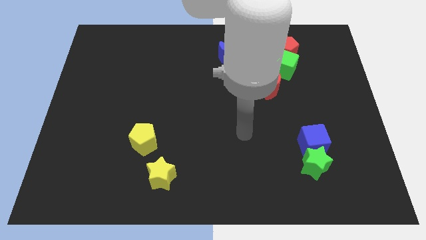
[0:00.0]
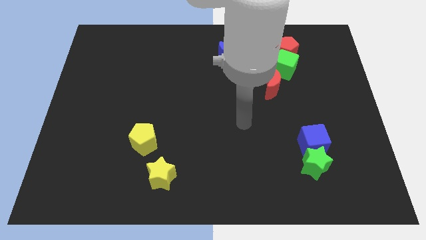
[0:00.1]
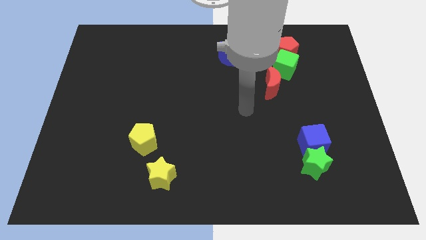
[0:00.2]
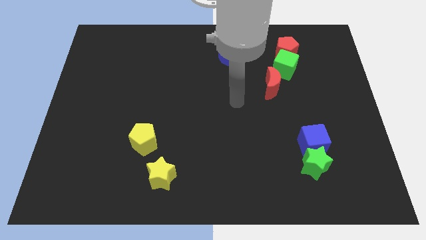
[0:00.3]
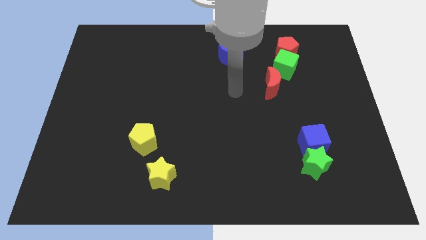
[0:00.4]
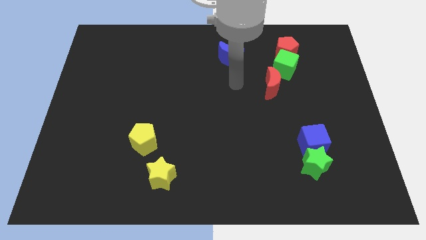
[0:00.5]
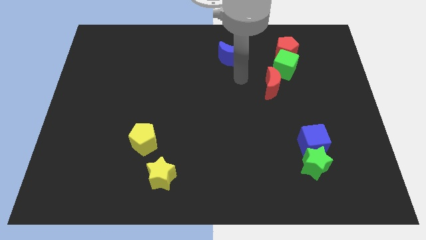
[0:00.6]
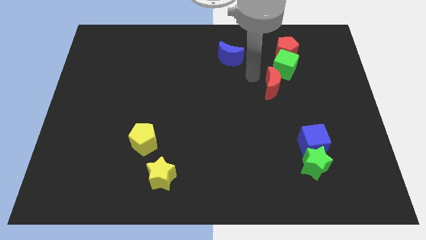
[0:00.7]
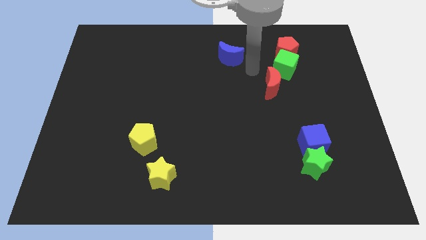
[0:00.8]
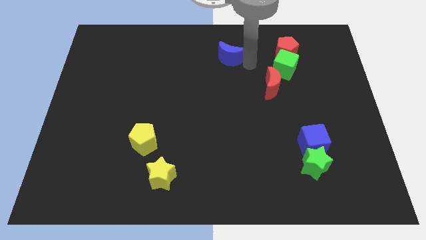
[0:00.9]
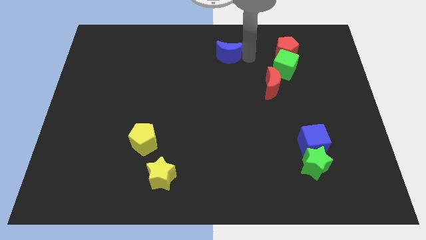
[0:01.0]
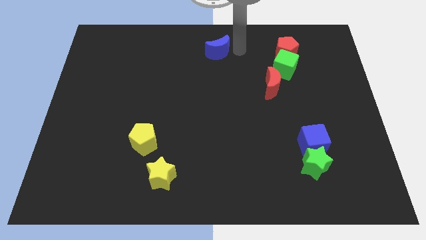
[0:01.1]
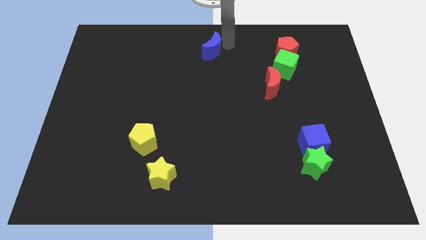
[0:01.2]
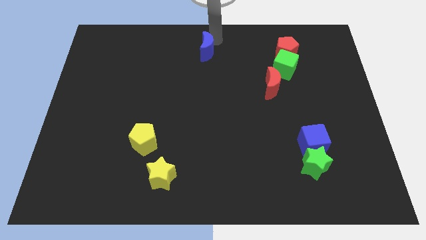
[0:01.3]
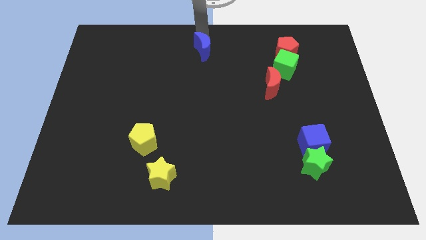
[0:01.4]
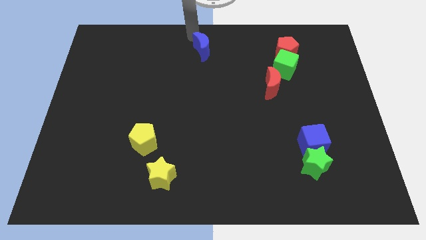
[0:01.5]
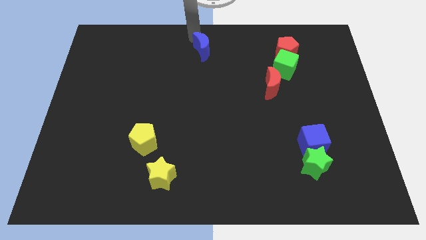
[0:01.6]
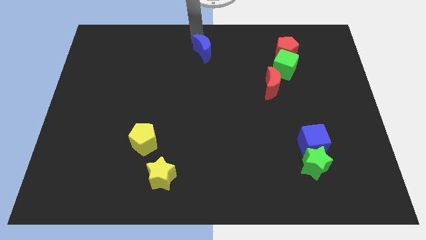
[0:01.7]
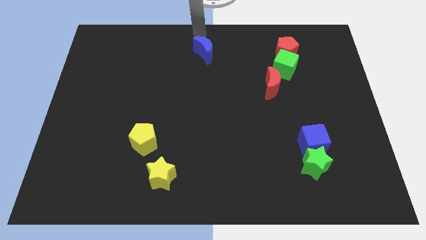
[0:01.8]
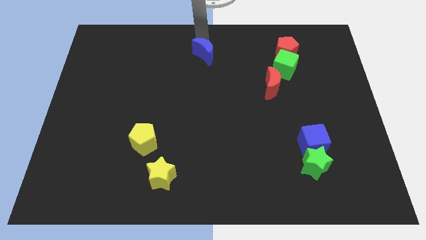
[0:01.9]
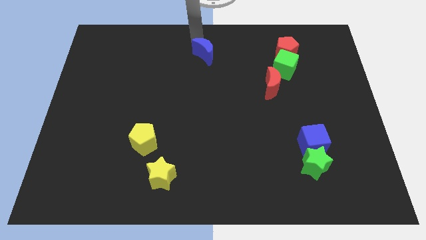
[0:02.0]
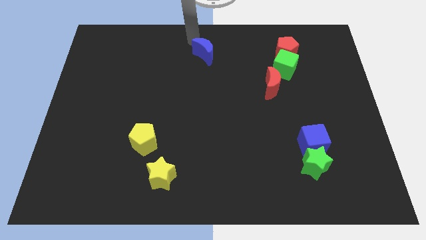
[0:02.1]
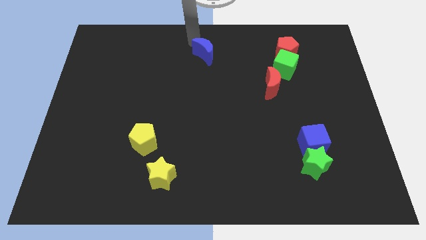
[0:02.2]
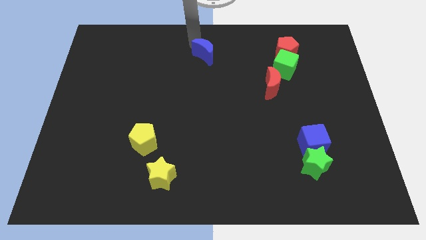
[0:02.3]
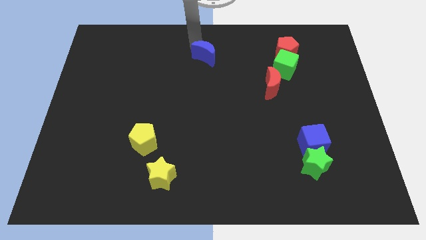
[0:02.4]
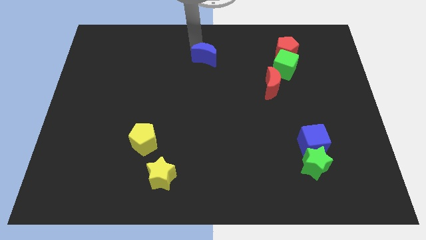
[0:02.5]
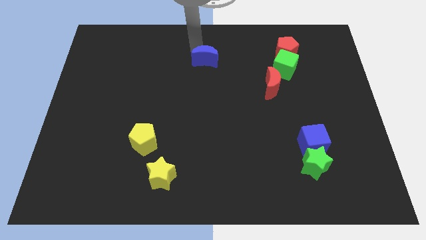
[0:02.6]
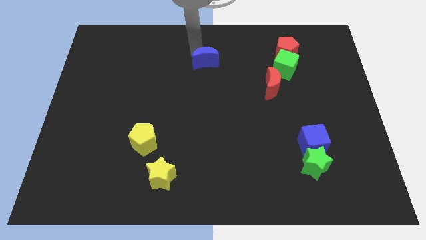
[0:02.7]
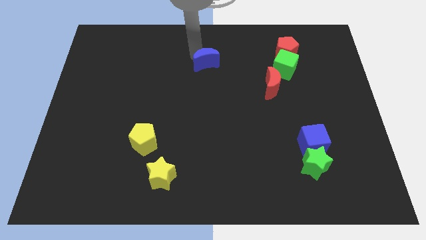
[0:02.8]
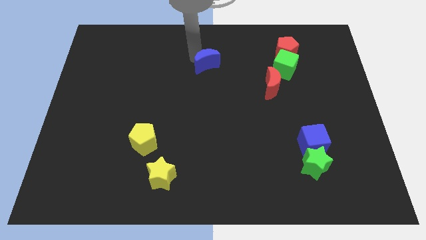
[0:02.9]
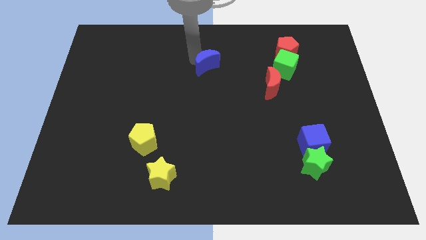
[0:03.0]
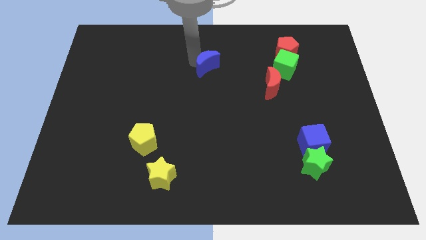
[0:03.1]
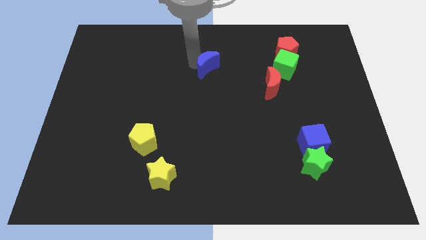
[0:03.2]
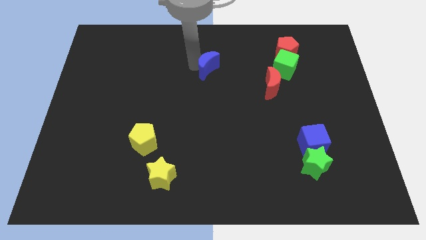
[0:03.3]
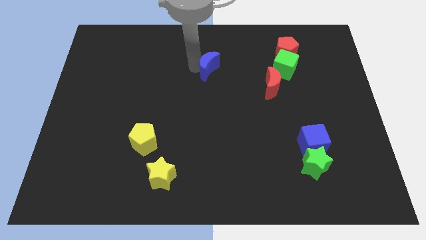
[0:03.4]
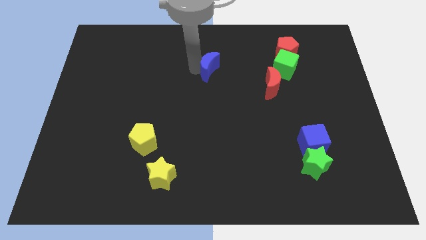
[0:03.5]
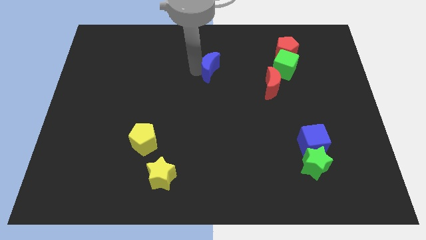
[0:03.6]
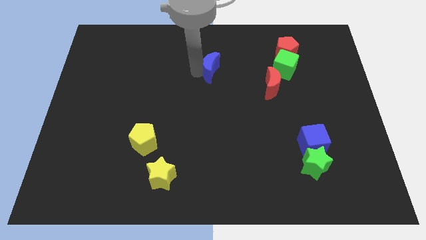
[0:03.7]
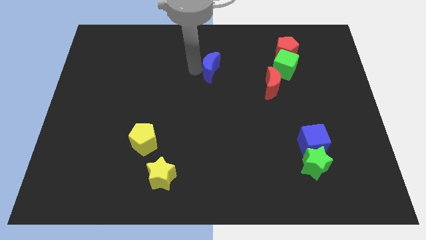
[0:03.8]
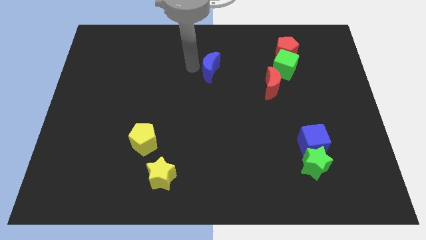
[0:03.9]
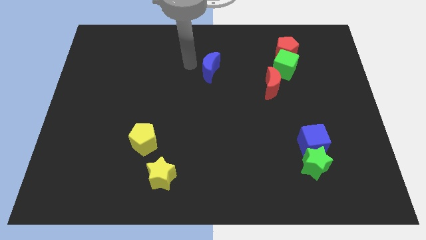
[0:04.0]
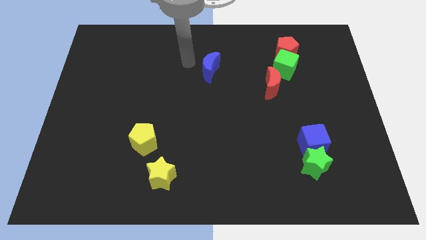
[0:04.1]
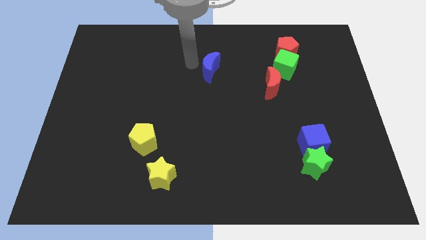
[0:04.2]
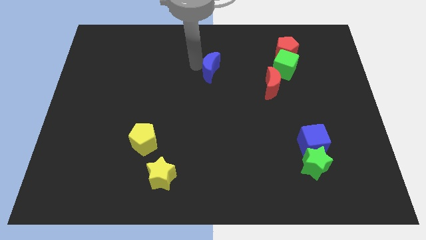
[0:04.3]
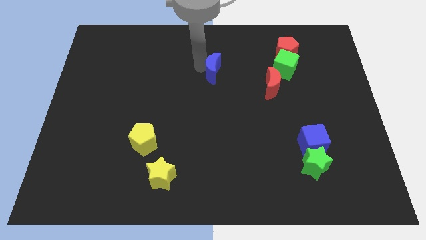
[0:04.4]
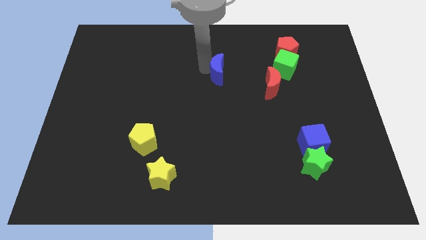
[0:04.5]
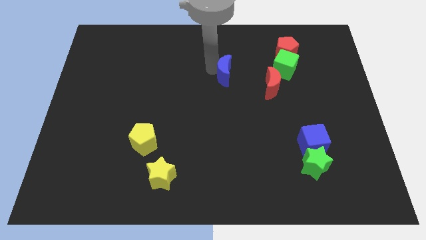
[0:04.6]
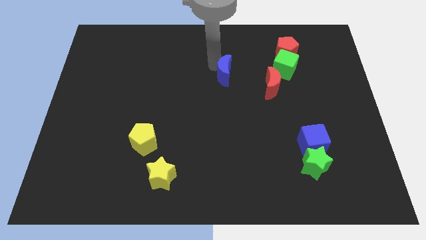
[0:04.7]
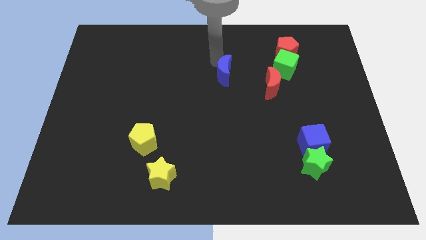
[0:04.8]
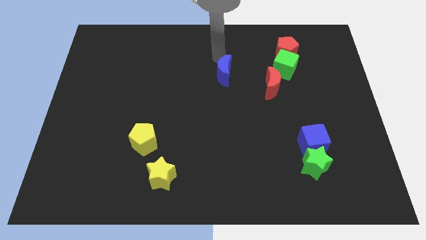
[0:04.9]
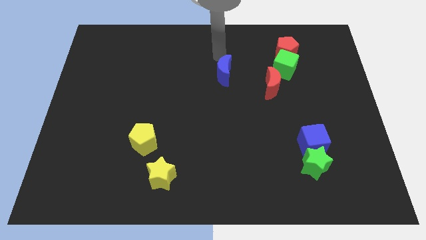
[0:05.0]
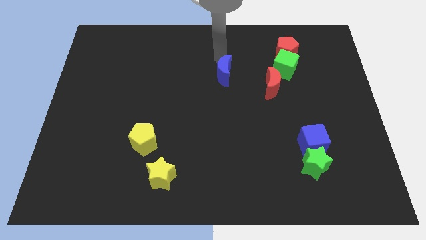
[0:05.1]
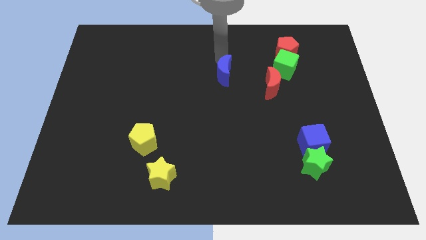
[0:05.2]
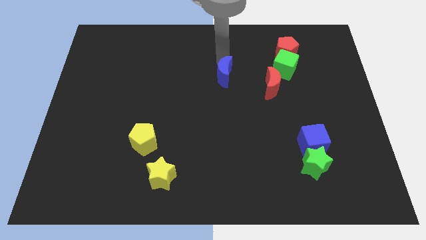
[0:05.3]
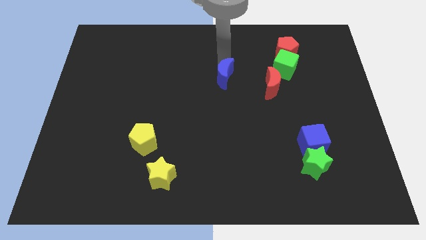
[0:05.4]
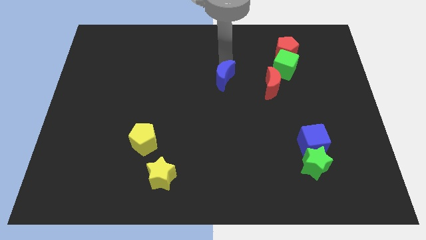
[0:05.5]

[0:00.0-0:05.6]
push the blue moon a little down

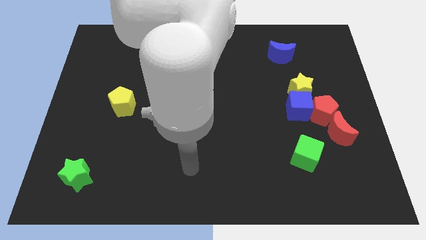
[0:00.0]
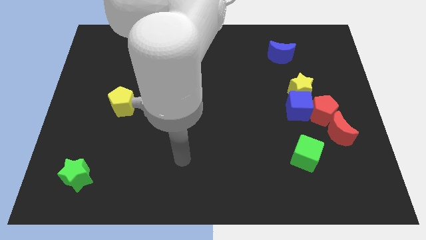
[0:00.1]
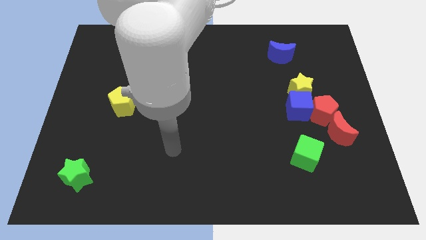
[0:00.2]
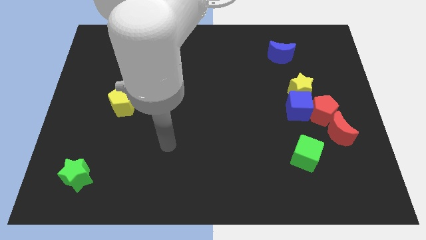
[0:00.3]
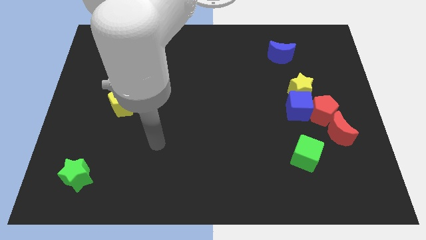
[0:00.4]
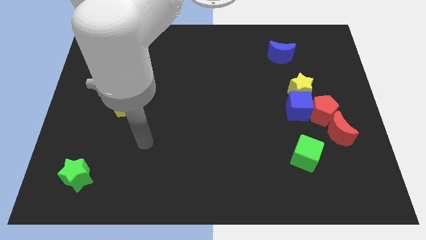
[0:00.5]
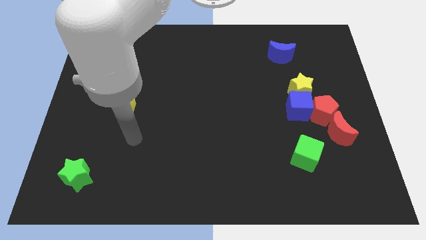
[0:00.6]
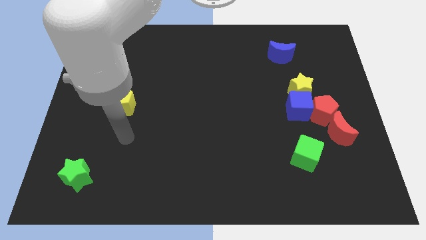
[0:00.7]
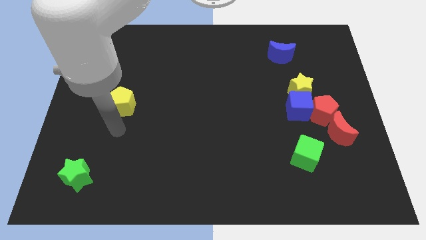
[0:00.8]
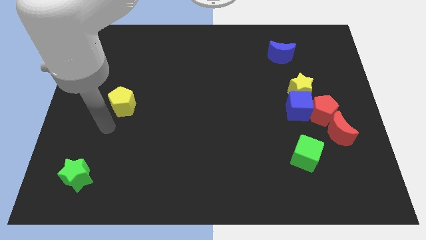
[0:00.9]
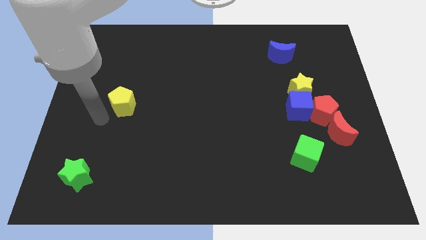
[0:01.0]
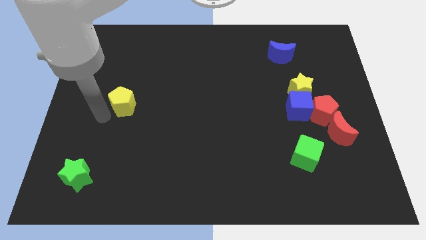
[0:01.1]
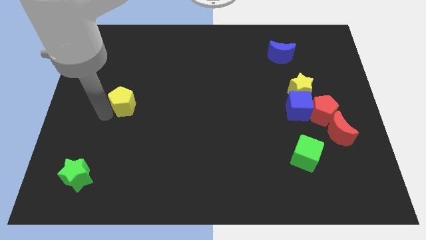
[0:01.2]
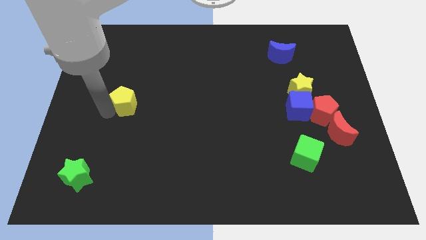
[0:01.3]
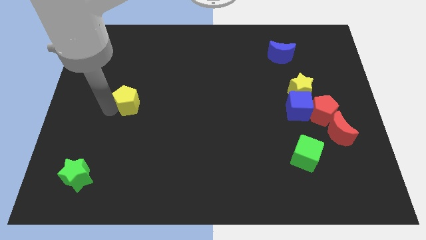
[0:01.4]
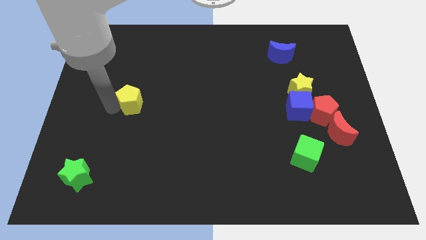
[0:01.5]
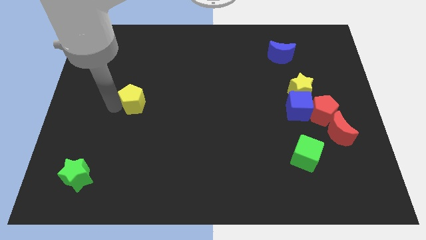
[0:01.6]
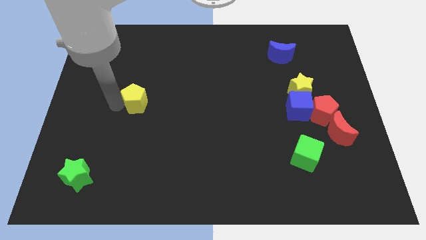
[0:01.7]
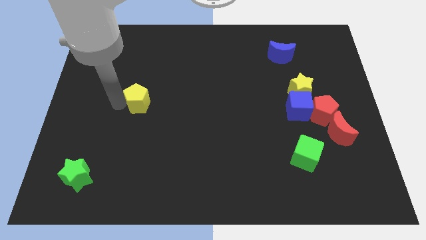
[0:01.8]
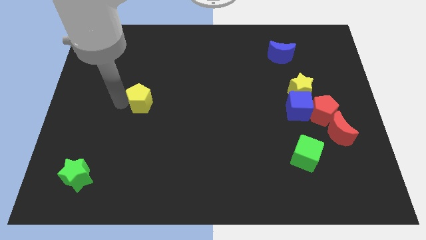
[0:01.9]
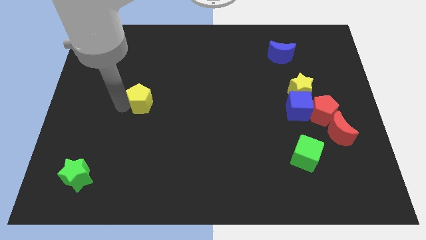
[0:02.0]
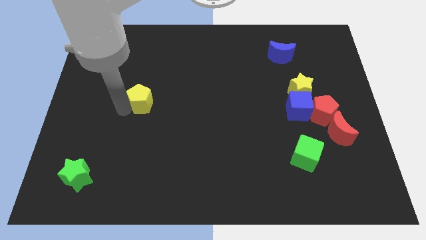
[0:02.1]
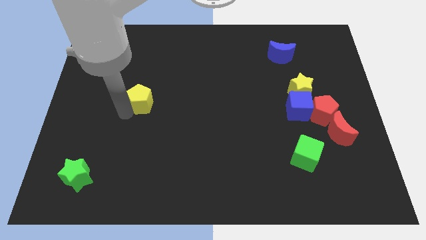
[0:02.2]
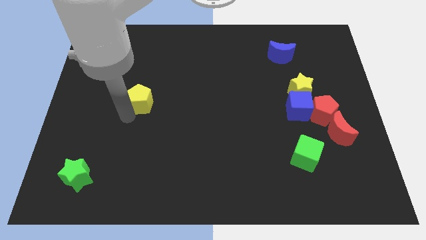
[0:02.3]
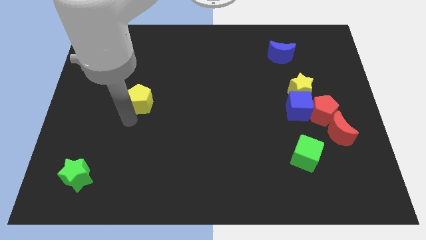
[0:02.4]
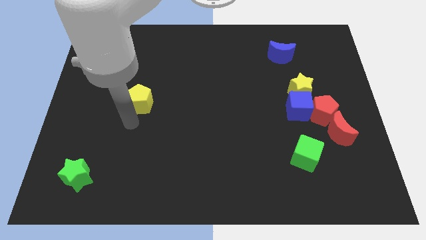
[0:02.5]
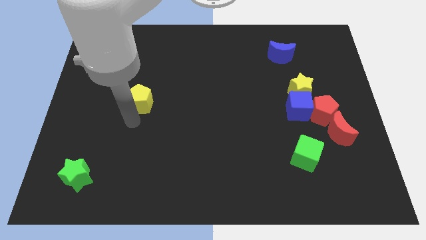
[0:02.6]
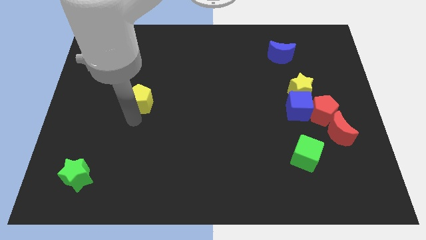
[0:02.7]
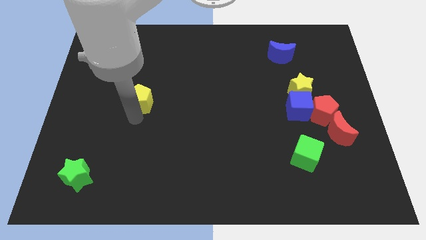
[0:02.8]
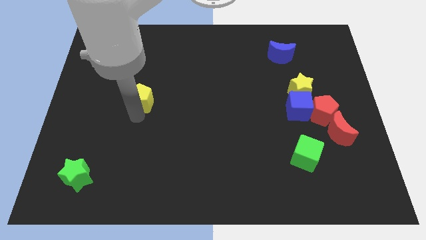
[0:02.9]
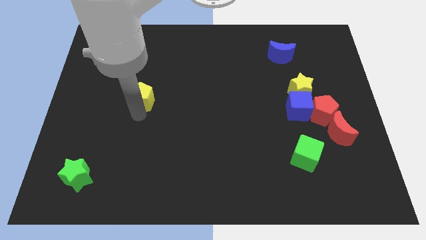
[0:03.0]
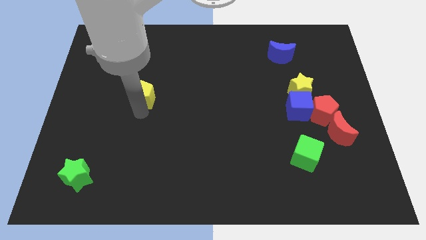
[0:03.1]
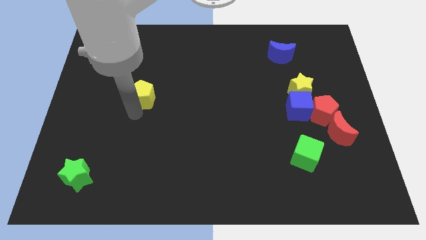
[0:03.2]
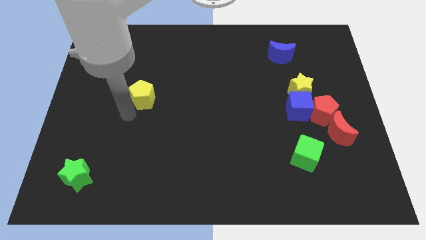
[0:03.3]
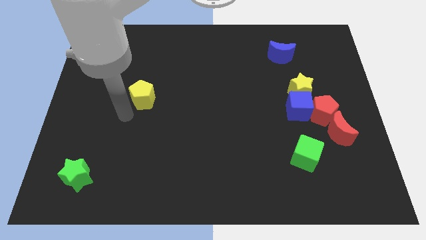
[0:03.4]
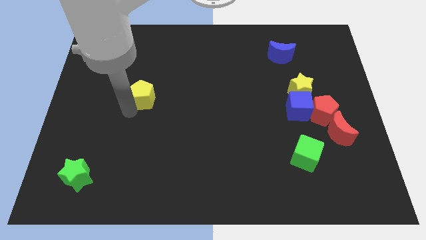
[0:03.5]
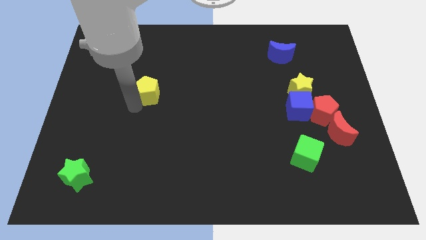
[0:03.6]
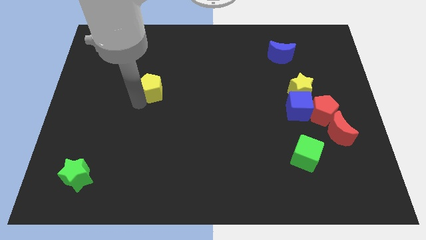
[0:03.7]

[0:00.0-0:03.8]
push the yellow pentagon a bit upwards and then to the right
